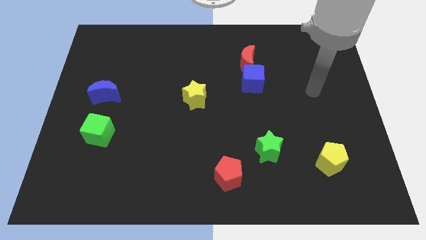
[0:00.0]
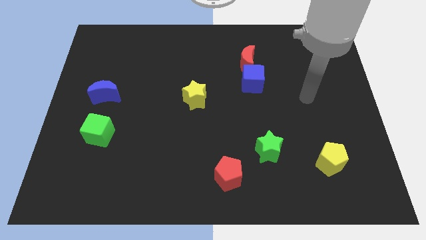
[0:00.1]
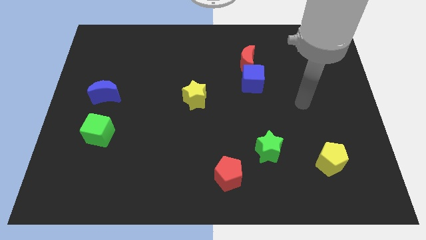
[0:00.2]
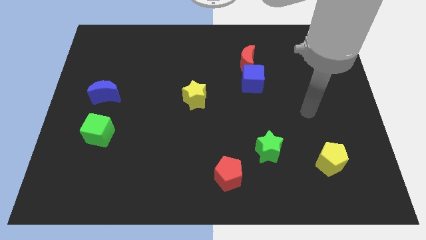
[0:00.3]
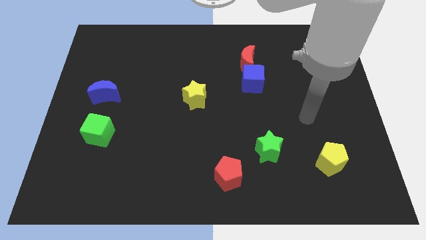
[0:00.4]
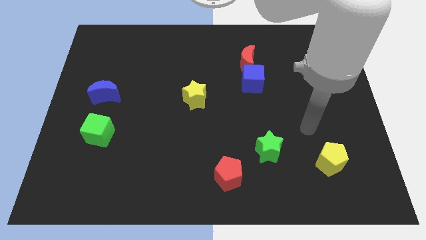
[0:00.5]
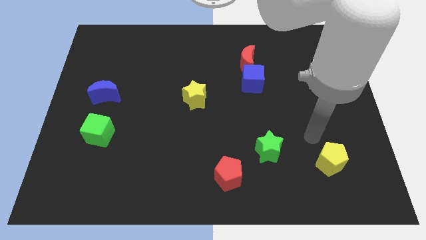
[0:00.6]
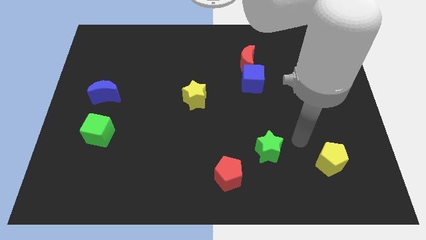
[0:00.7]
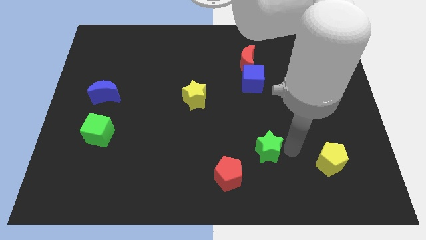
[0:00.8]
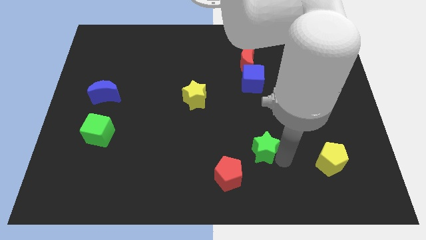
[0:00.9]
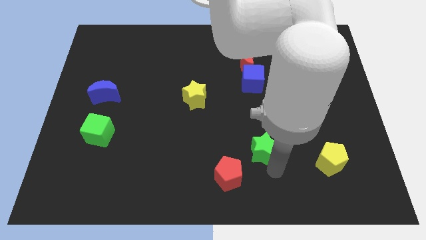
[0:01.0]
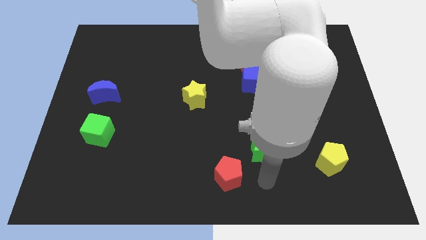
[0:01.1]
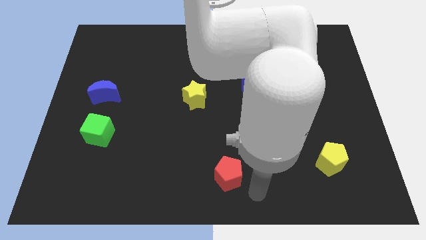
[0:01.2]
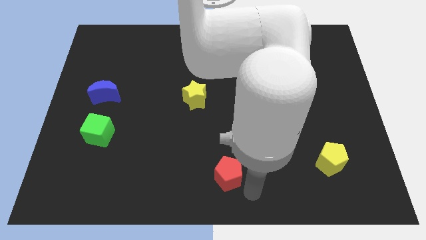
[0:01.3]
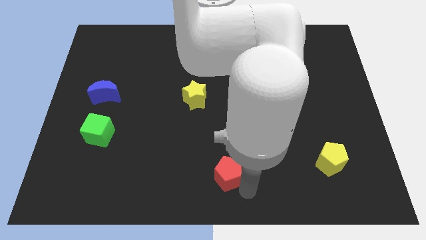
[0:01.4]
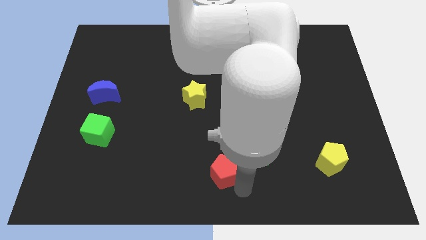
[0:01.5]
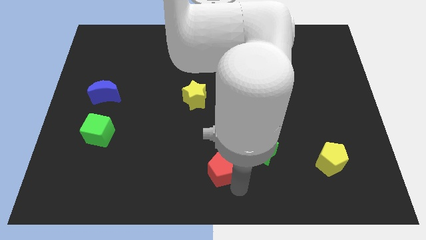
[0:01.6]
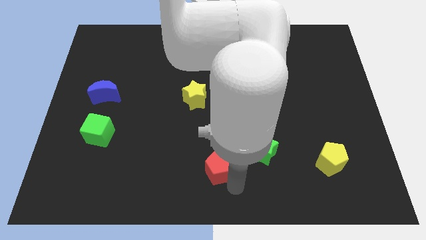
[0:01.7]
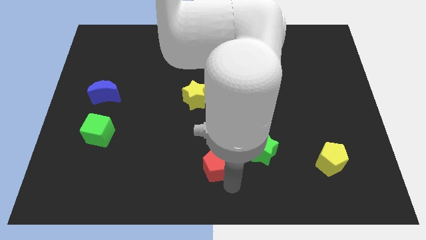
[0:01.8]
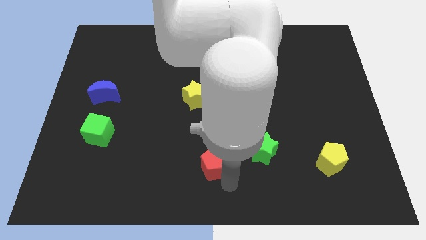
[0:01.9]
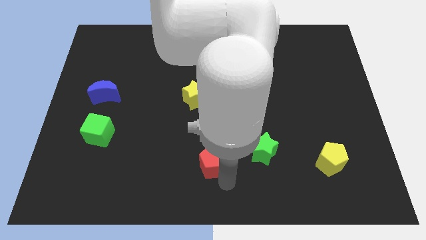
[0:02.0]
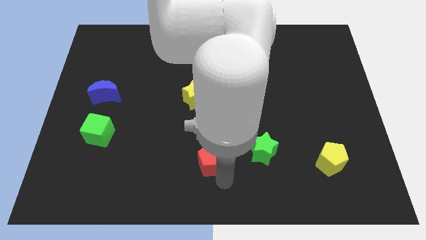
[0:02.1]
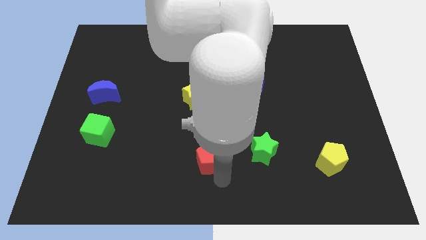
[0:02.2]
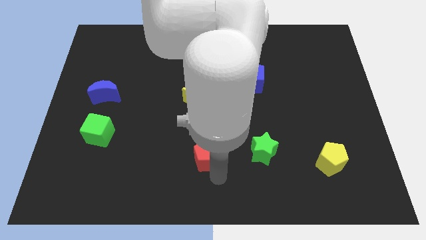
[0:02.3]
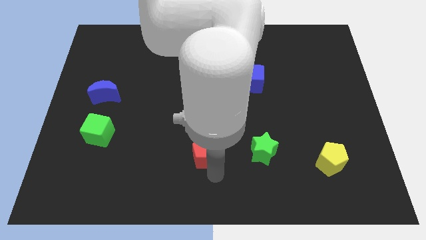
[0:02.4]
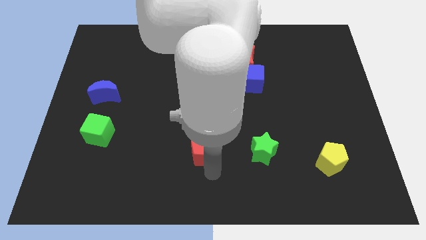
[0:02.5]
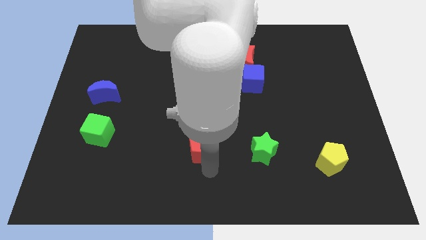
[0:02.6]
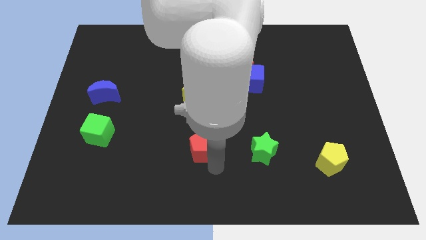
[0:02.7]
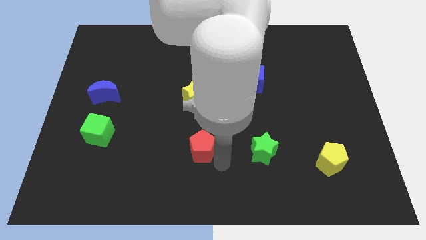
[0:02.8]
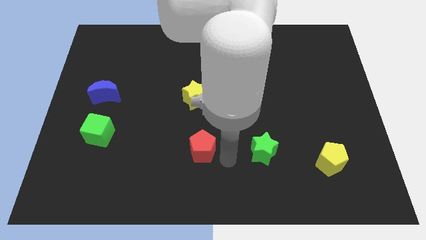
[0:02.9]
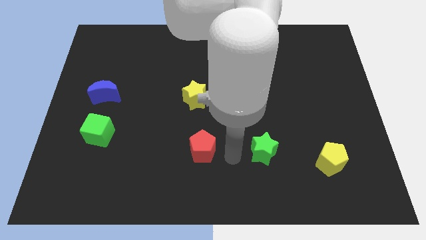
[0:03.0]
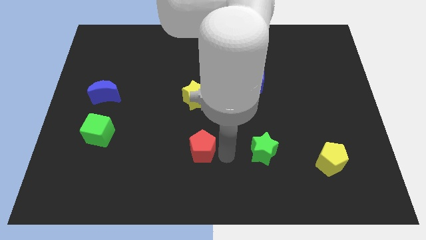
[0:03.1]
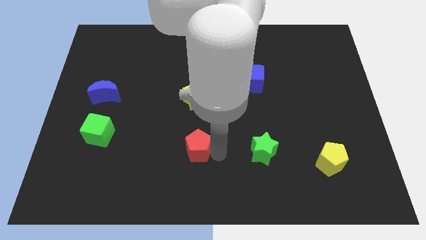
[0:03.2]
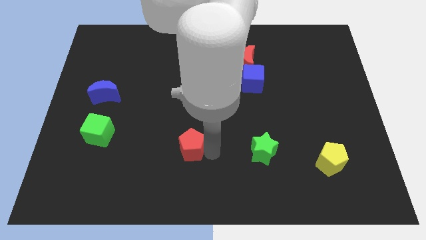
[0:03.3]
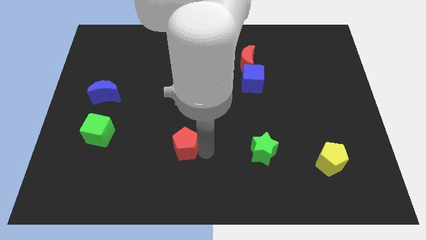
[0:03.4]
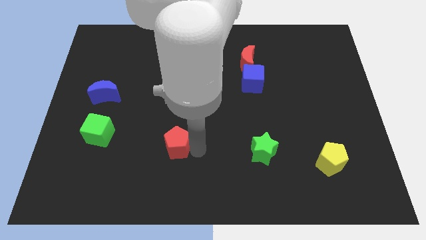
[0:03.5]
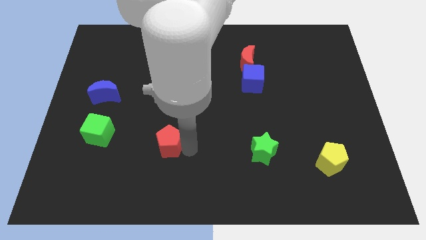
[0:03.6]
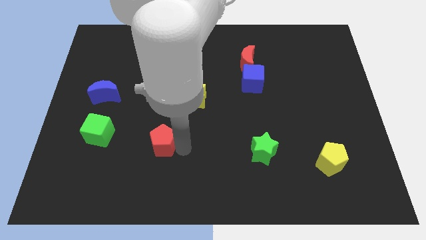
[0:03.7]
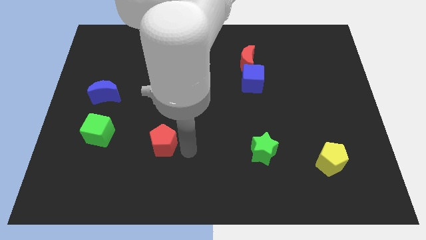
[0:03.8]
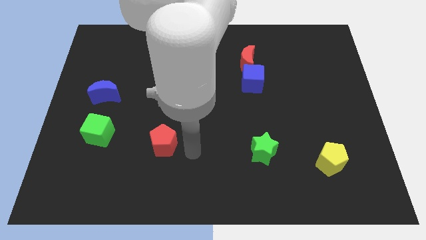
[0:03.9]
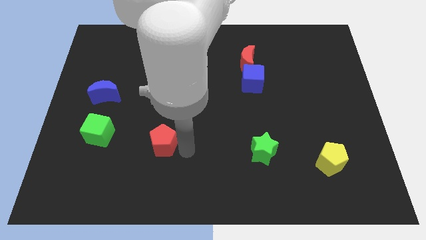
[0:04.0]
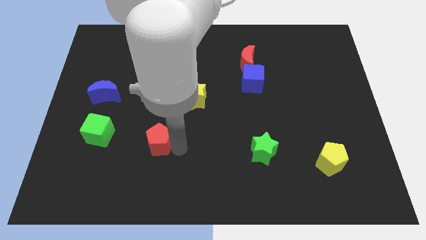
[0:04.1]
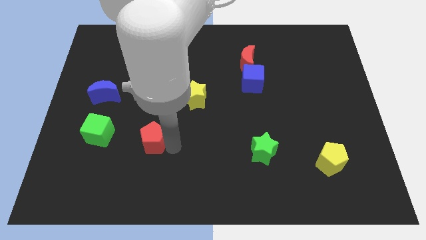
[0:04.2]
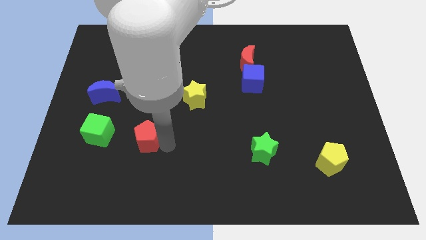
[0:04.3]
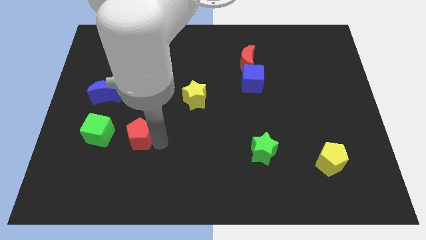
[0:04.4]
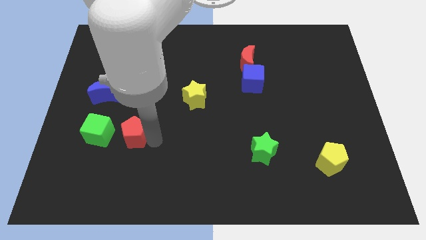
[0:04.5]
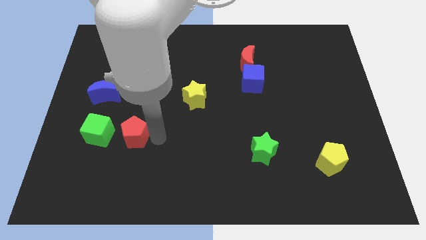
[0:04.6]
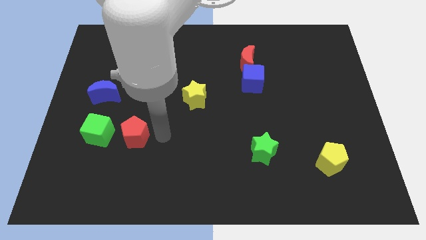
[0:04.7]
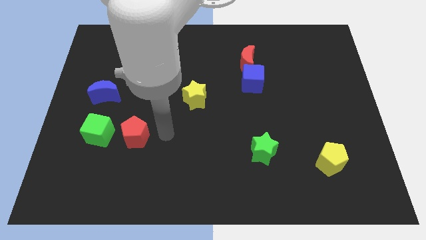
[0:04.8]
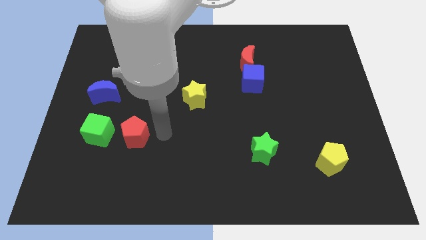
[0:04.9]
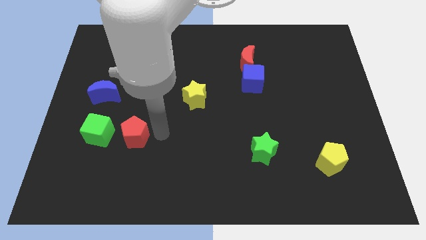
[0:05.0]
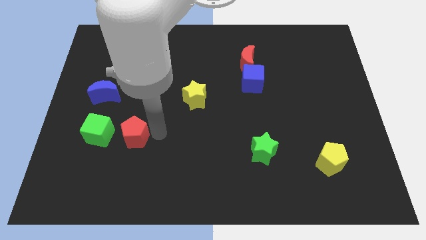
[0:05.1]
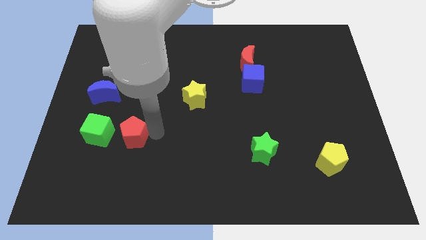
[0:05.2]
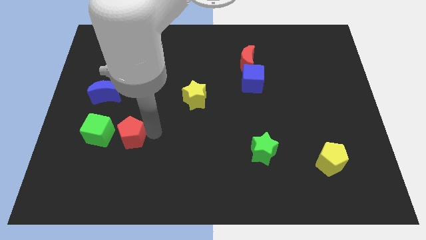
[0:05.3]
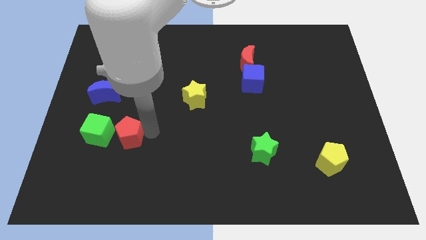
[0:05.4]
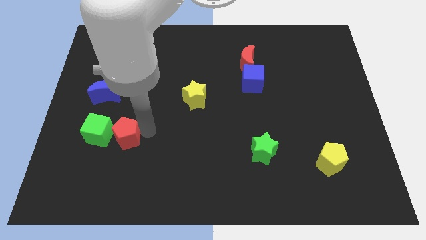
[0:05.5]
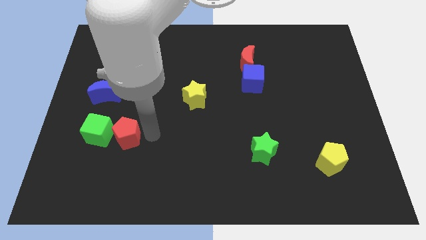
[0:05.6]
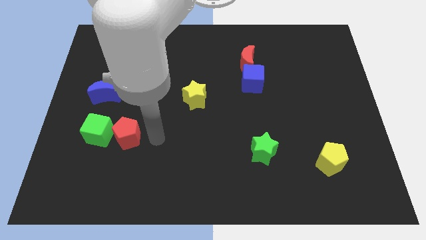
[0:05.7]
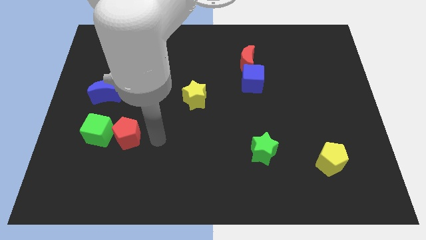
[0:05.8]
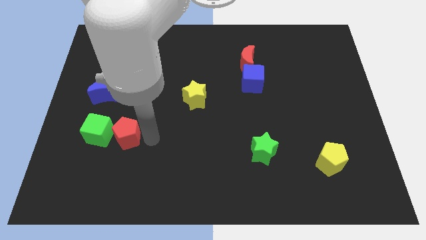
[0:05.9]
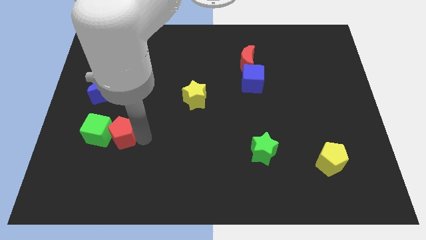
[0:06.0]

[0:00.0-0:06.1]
put the red pentagon close to the green cube

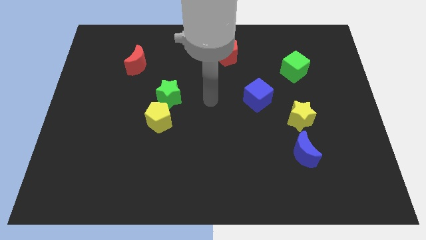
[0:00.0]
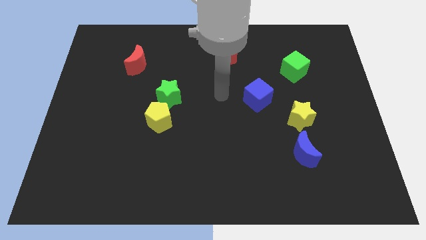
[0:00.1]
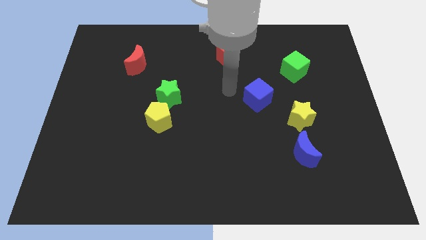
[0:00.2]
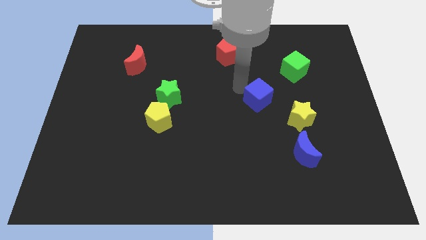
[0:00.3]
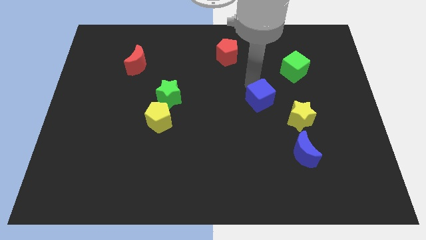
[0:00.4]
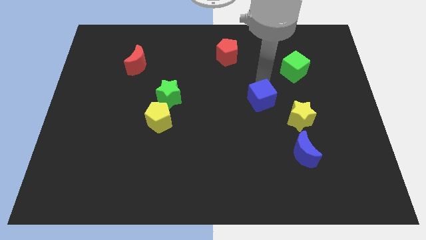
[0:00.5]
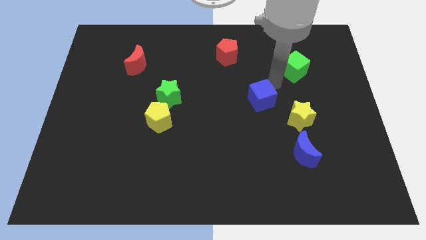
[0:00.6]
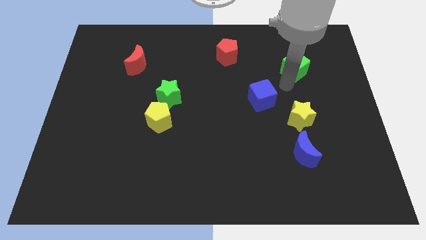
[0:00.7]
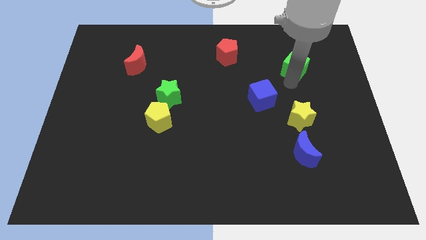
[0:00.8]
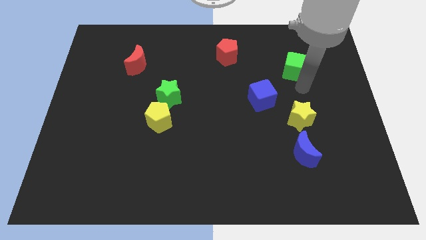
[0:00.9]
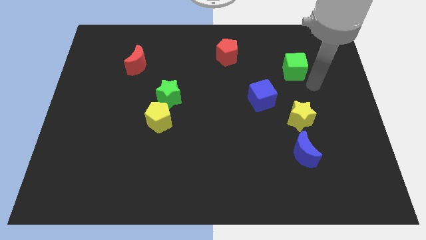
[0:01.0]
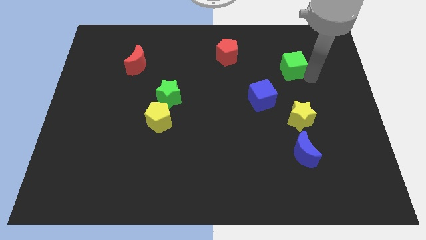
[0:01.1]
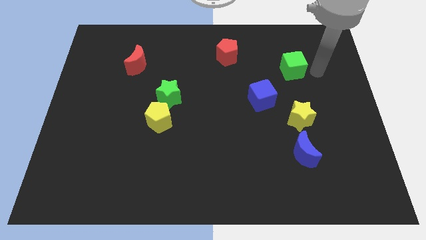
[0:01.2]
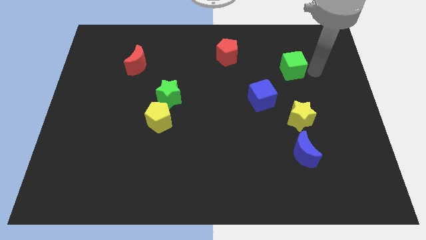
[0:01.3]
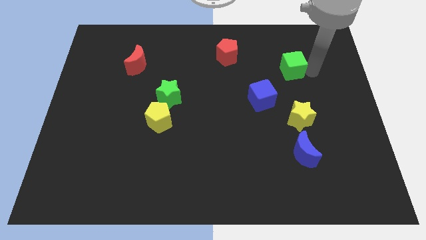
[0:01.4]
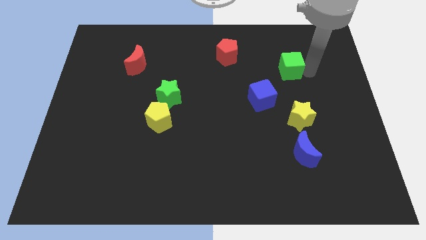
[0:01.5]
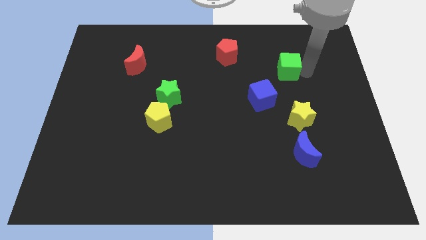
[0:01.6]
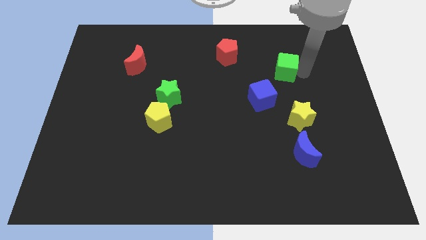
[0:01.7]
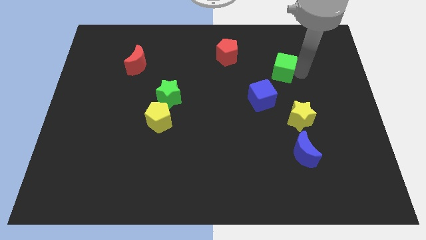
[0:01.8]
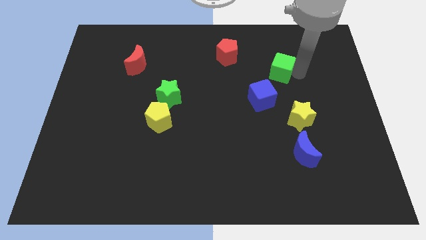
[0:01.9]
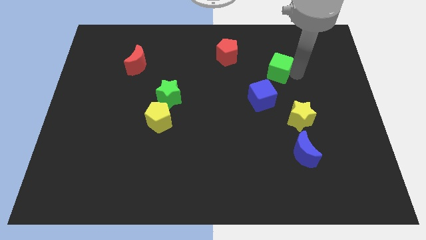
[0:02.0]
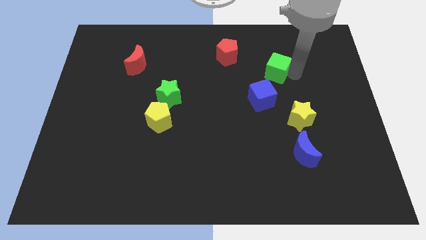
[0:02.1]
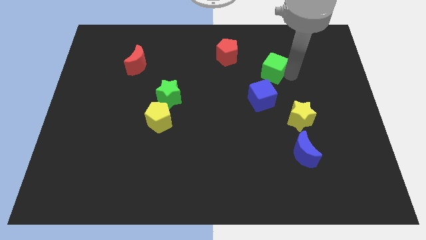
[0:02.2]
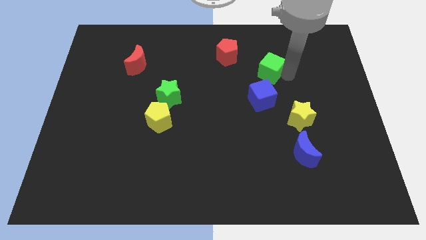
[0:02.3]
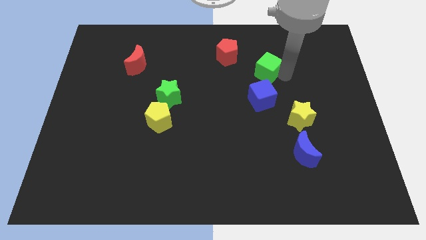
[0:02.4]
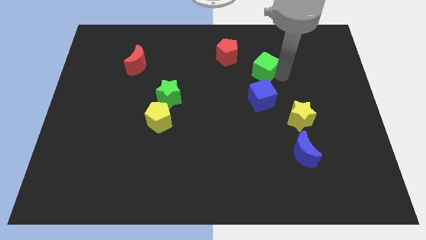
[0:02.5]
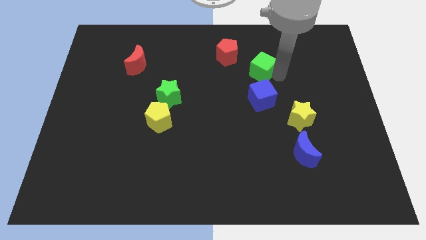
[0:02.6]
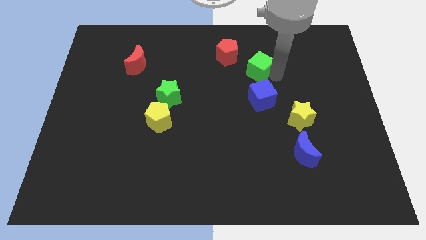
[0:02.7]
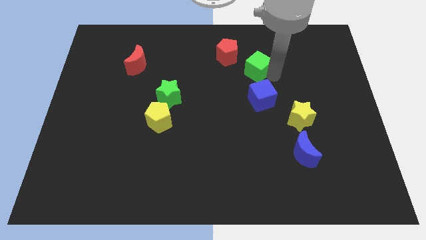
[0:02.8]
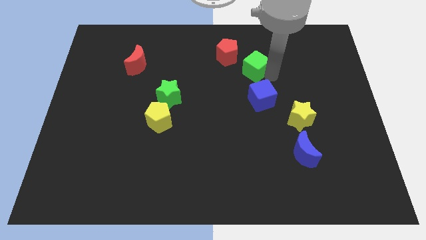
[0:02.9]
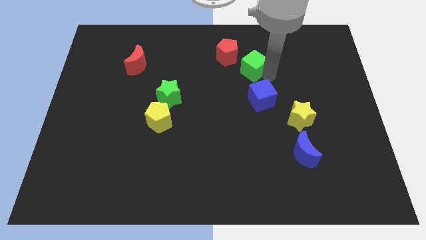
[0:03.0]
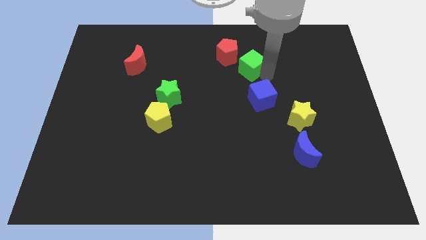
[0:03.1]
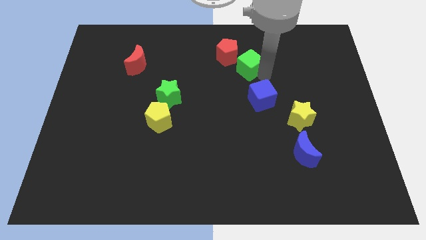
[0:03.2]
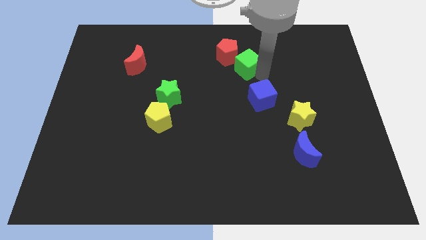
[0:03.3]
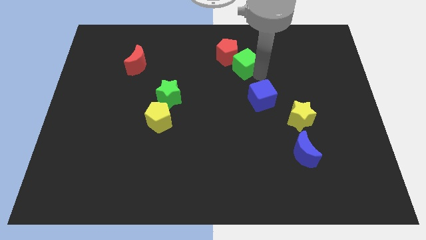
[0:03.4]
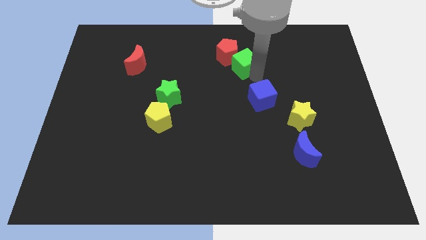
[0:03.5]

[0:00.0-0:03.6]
slide the green cube close to the red pentagon
